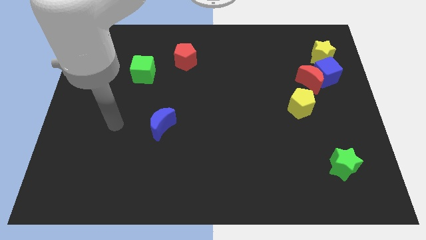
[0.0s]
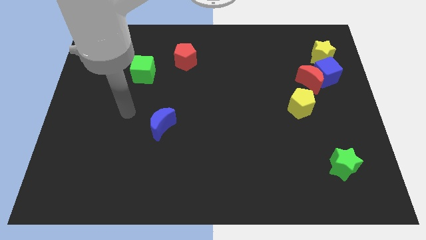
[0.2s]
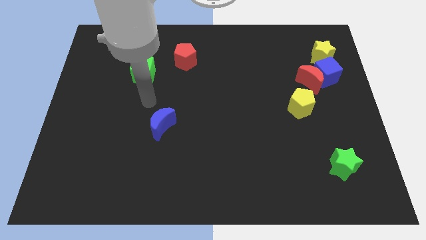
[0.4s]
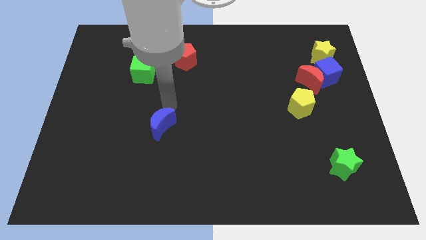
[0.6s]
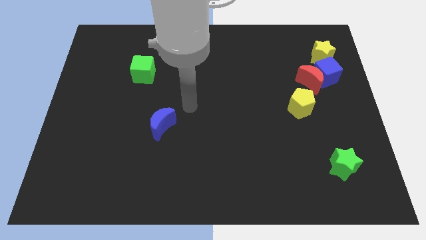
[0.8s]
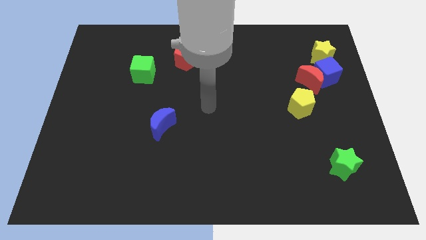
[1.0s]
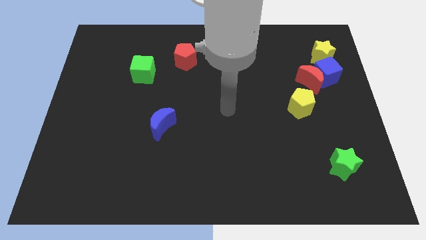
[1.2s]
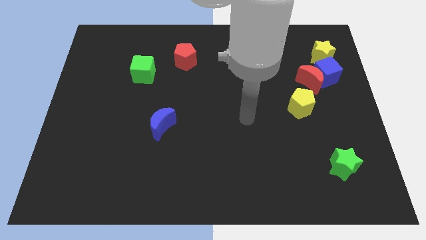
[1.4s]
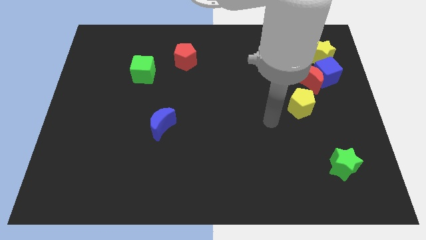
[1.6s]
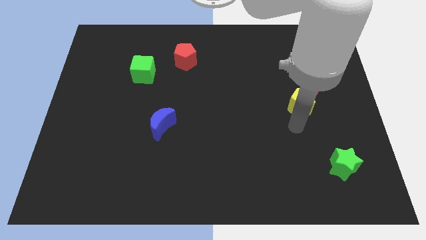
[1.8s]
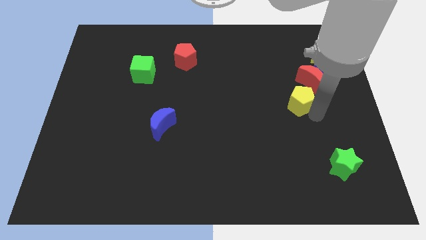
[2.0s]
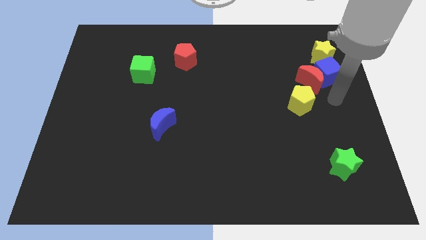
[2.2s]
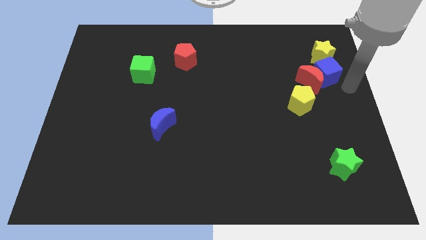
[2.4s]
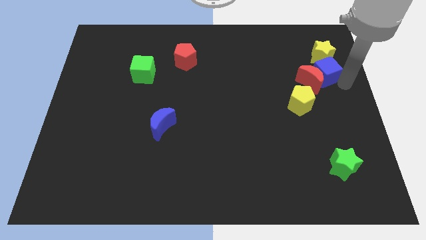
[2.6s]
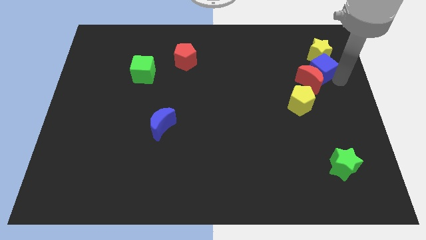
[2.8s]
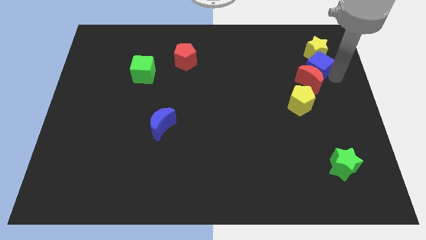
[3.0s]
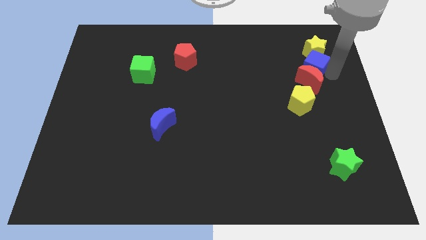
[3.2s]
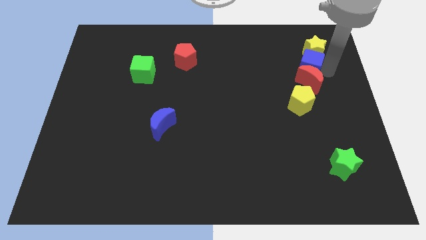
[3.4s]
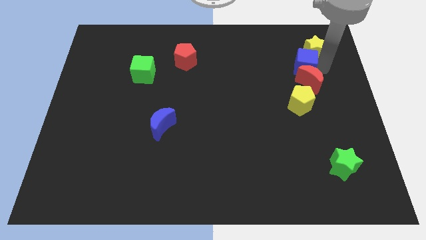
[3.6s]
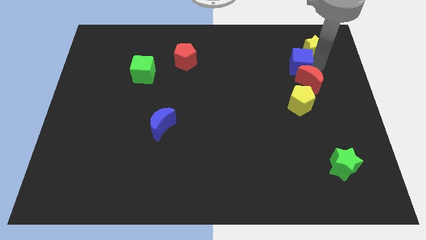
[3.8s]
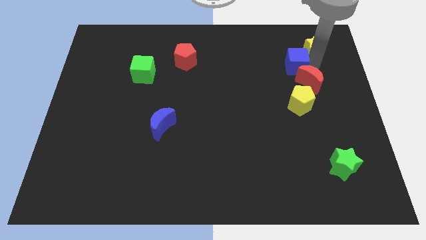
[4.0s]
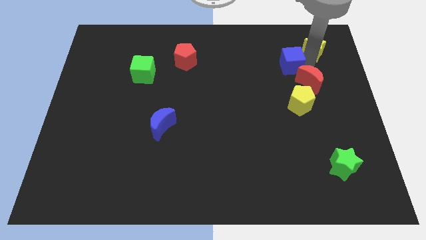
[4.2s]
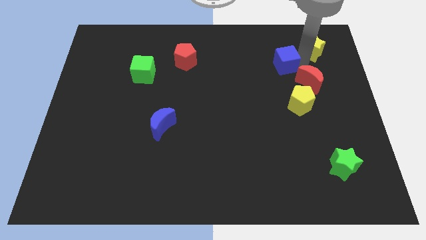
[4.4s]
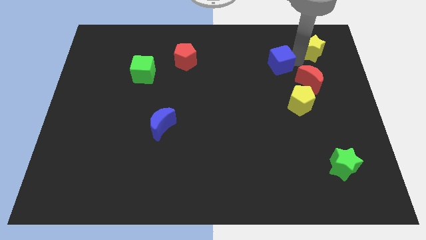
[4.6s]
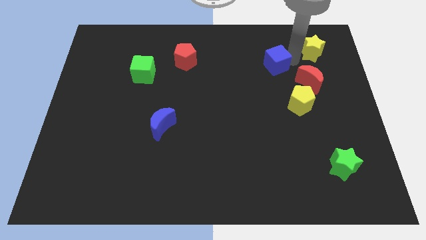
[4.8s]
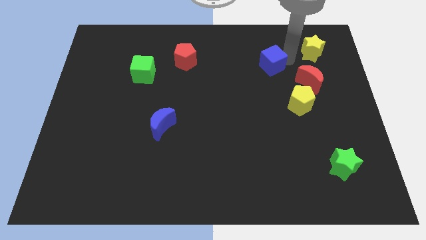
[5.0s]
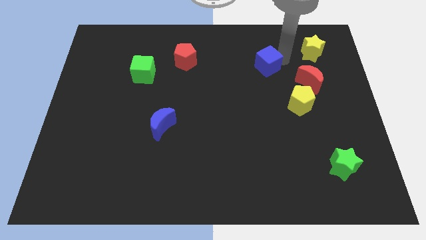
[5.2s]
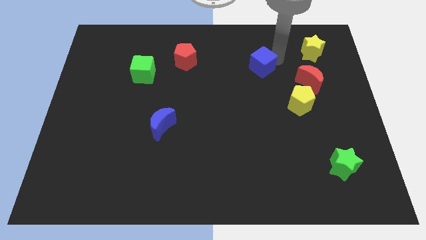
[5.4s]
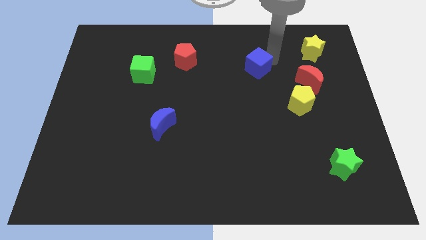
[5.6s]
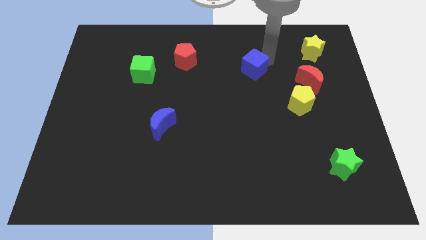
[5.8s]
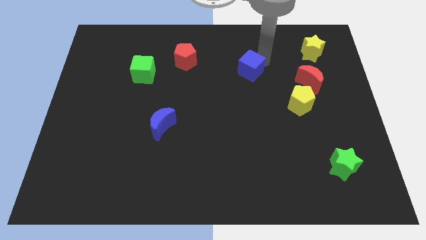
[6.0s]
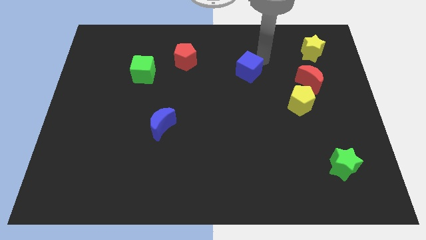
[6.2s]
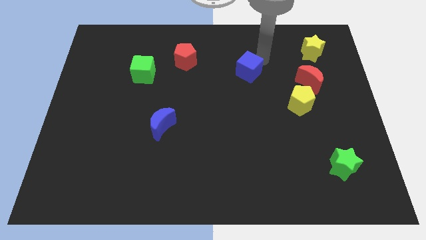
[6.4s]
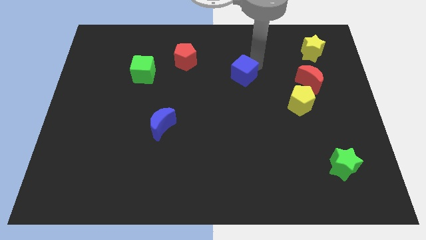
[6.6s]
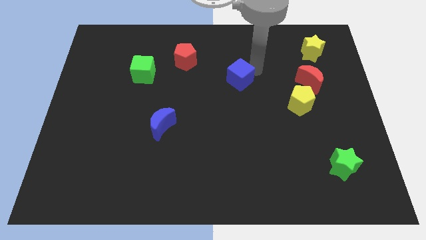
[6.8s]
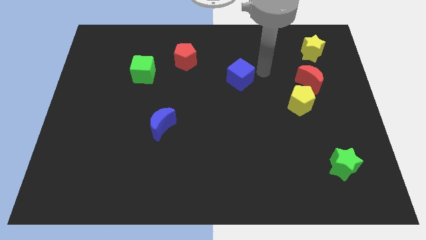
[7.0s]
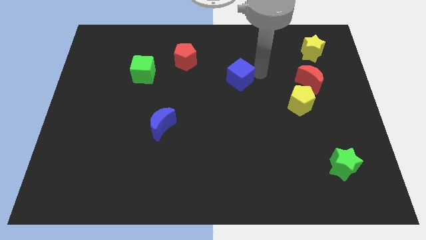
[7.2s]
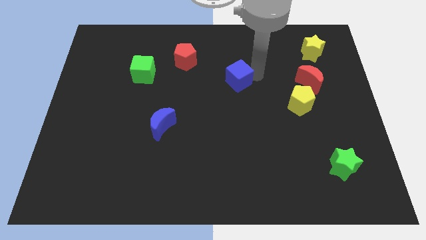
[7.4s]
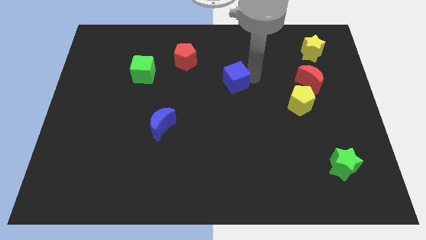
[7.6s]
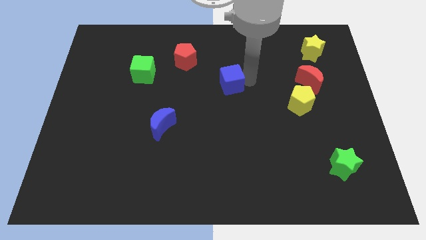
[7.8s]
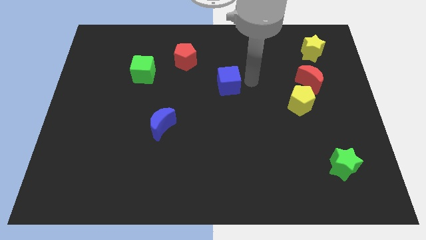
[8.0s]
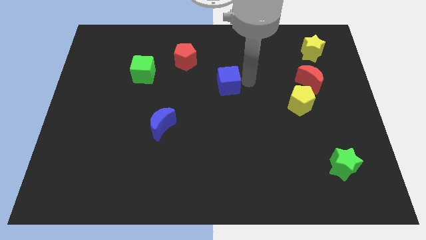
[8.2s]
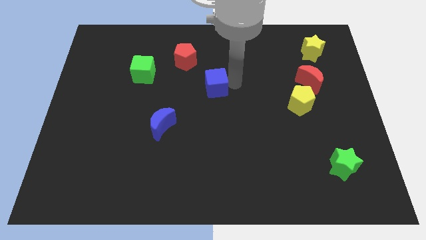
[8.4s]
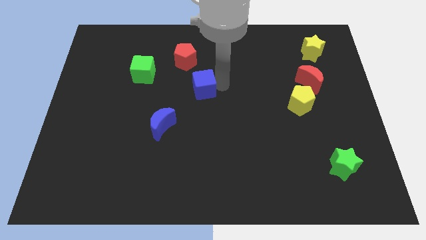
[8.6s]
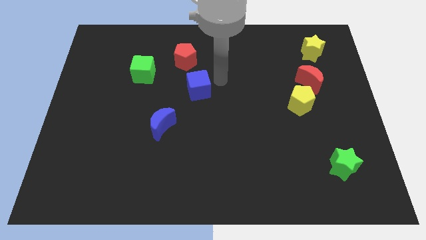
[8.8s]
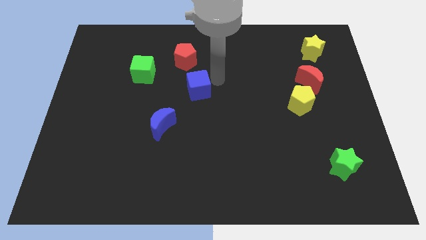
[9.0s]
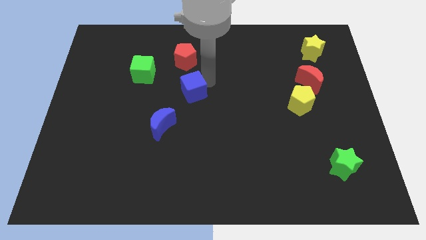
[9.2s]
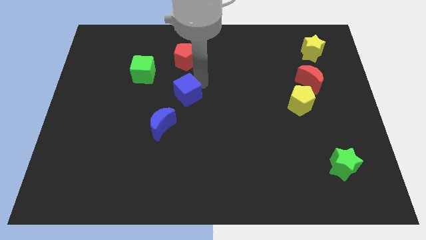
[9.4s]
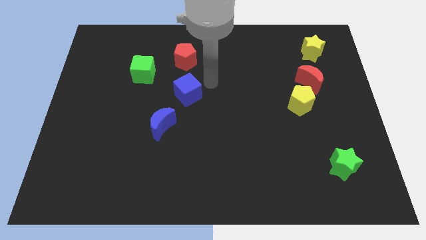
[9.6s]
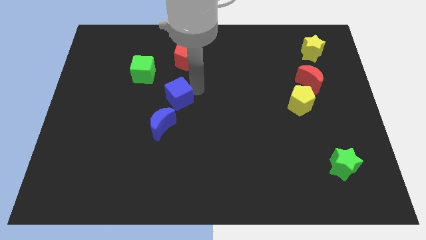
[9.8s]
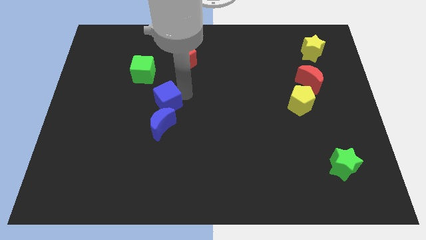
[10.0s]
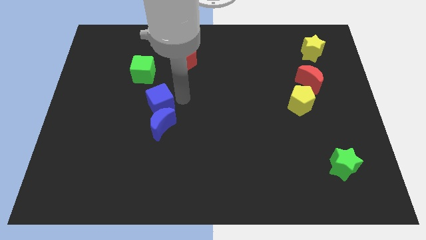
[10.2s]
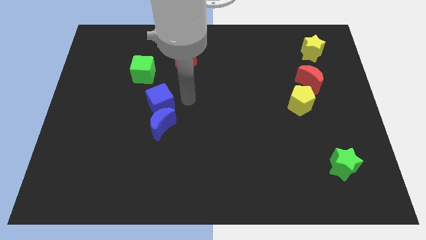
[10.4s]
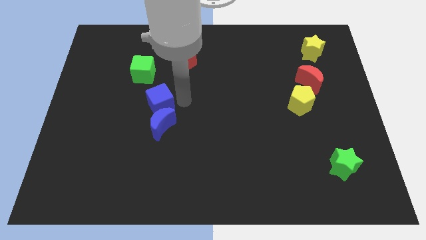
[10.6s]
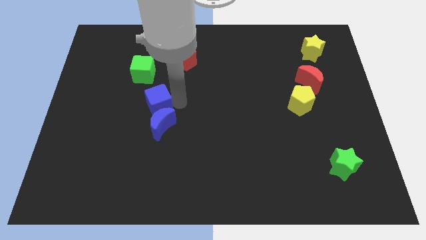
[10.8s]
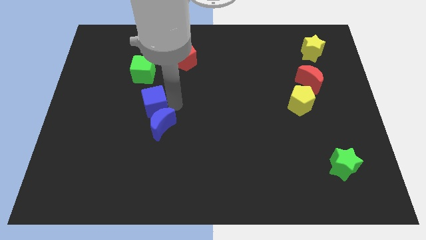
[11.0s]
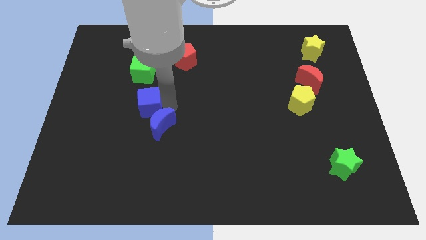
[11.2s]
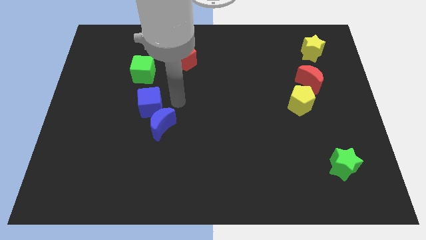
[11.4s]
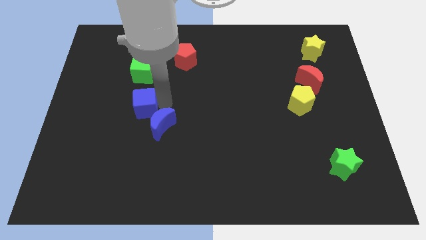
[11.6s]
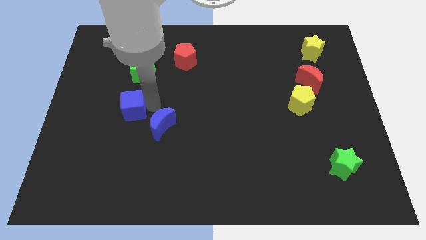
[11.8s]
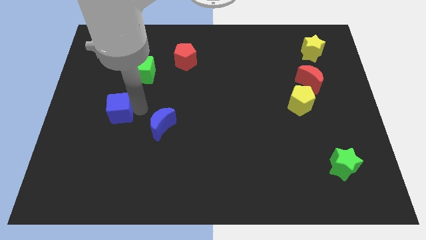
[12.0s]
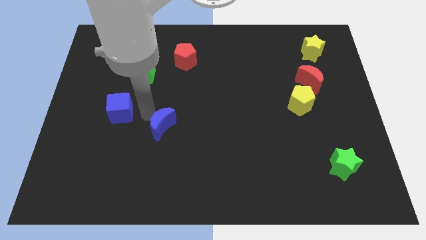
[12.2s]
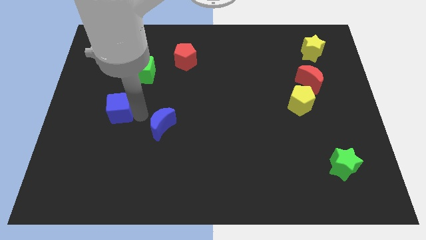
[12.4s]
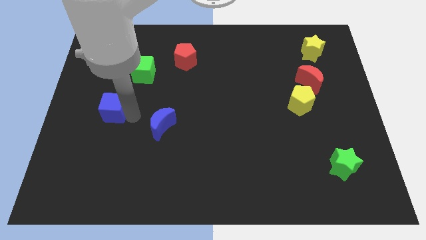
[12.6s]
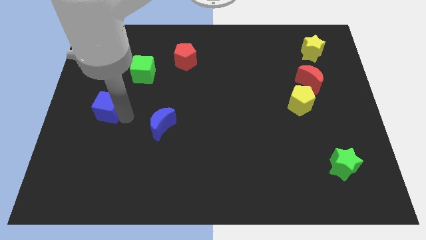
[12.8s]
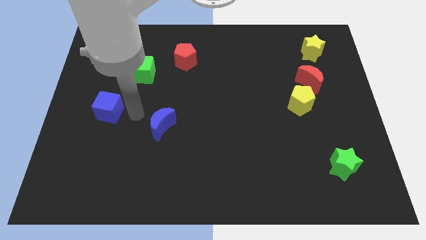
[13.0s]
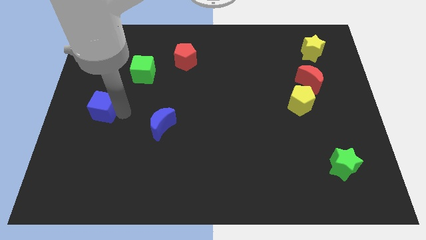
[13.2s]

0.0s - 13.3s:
put the blue cube to the left side of the board
